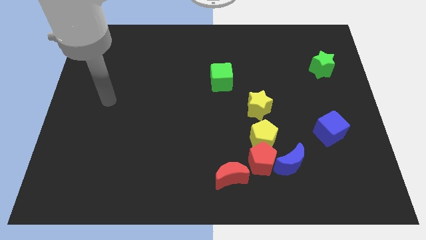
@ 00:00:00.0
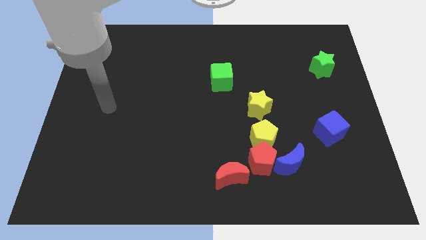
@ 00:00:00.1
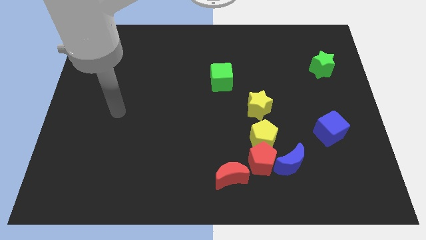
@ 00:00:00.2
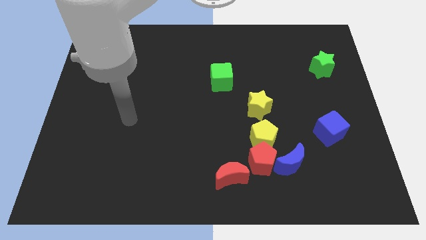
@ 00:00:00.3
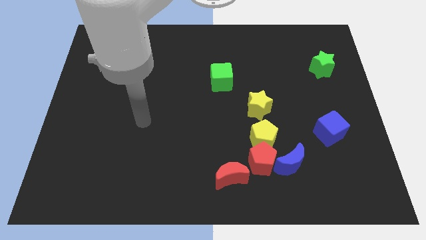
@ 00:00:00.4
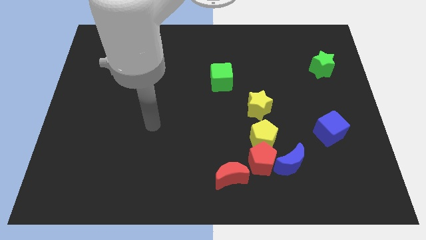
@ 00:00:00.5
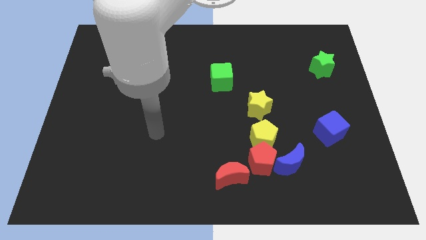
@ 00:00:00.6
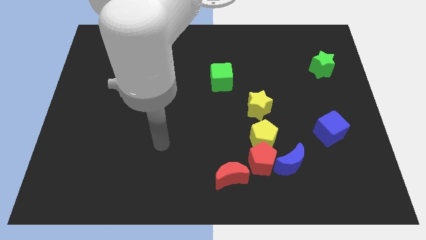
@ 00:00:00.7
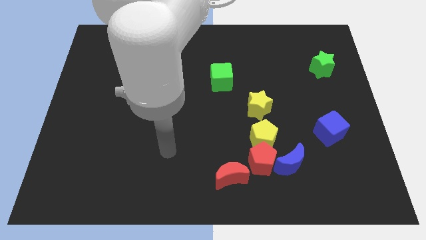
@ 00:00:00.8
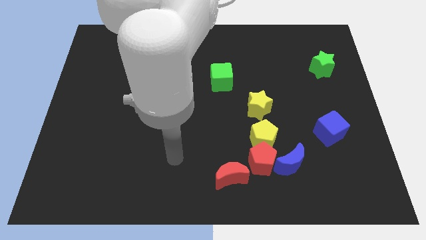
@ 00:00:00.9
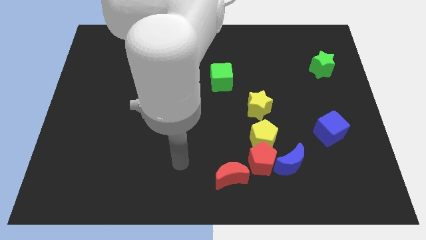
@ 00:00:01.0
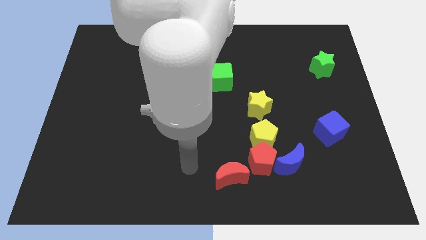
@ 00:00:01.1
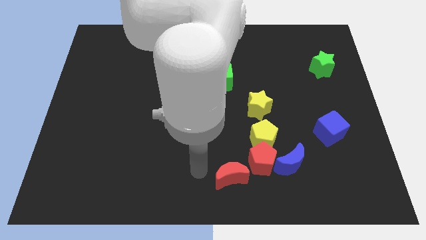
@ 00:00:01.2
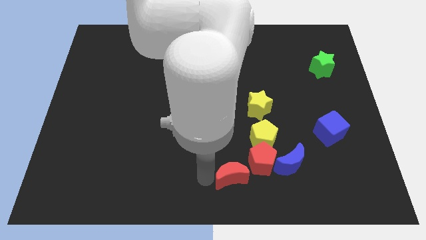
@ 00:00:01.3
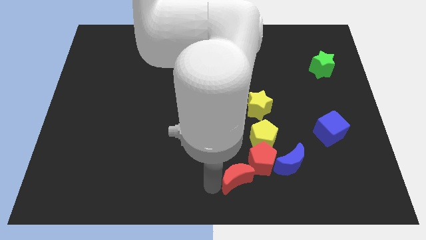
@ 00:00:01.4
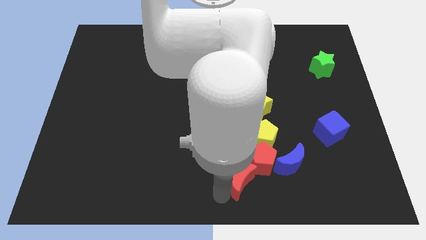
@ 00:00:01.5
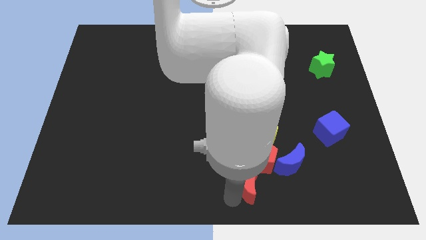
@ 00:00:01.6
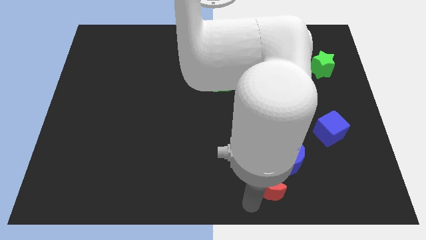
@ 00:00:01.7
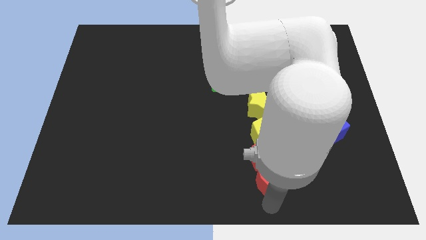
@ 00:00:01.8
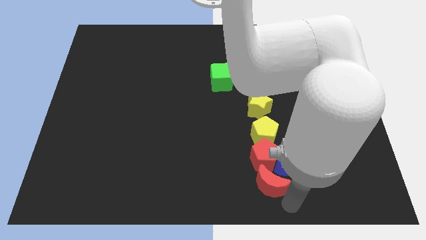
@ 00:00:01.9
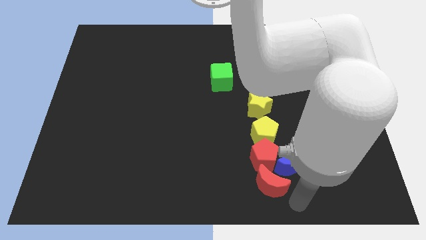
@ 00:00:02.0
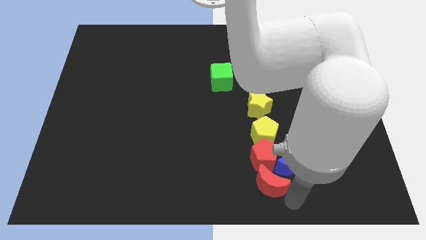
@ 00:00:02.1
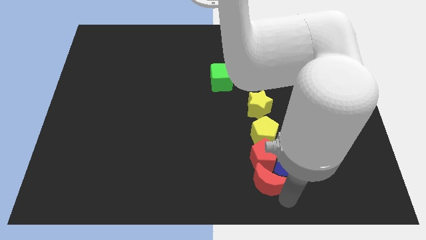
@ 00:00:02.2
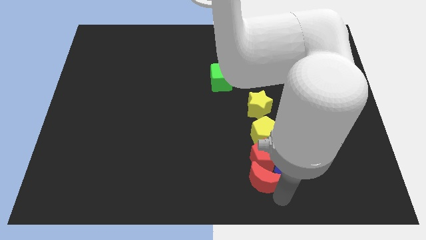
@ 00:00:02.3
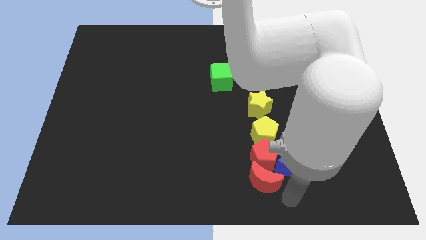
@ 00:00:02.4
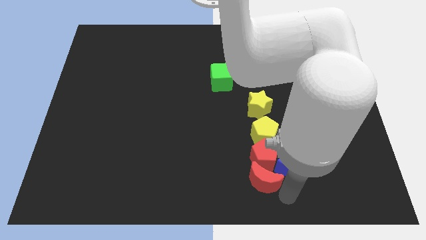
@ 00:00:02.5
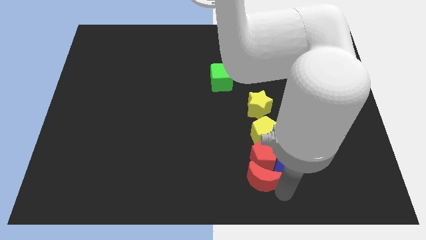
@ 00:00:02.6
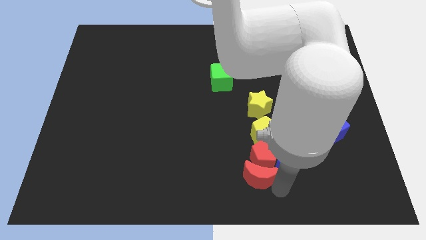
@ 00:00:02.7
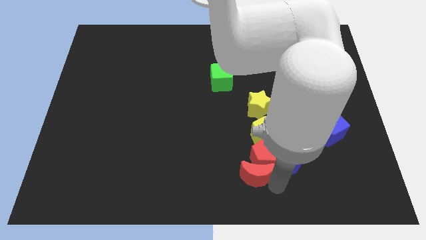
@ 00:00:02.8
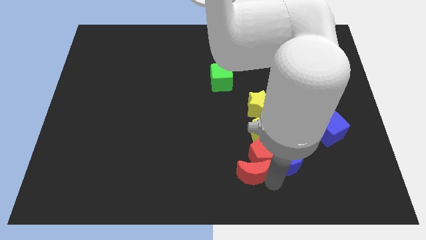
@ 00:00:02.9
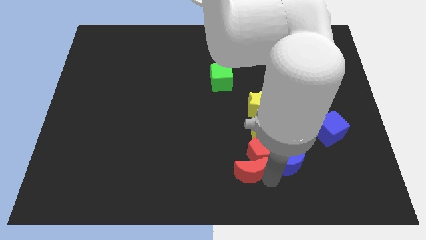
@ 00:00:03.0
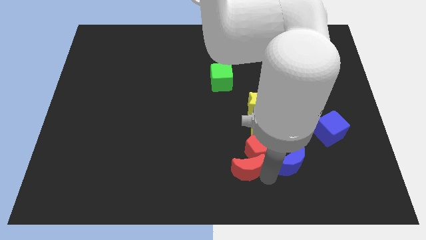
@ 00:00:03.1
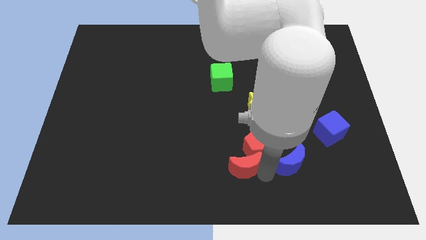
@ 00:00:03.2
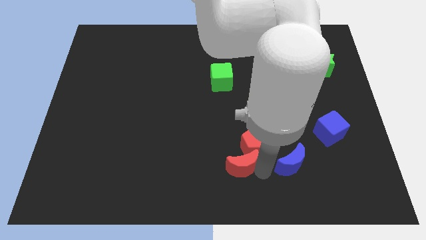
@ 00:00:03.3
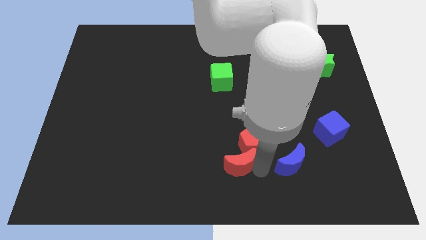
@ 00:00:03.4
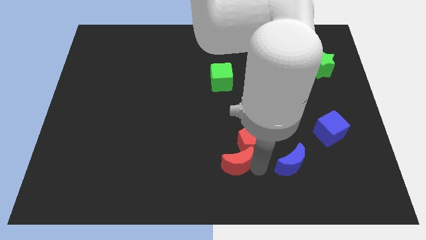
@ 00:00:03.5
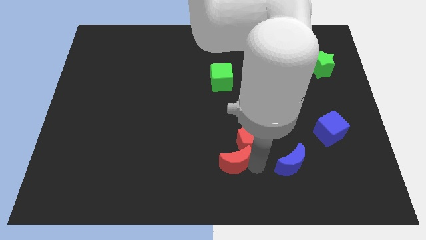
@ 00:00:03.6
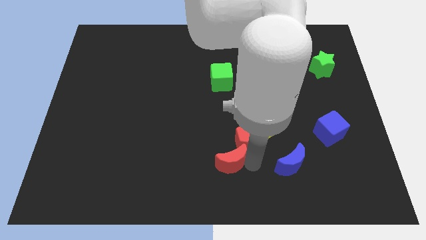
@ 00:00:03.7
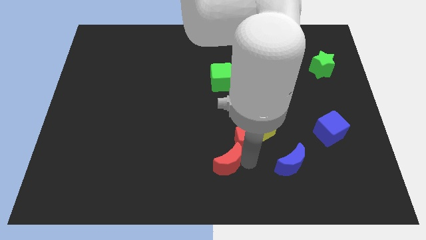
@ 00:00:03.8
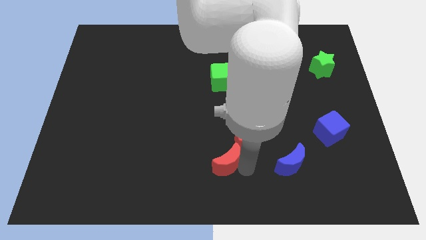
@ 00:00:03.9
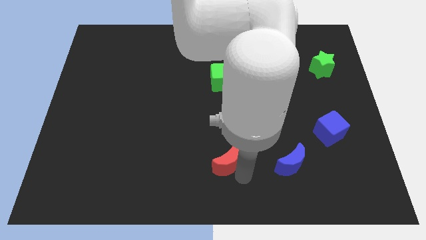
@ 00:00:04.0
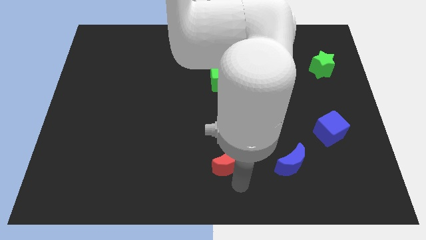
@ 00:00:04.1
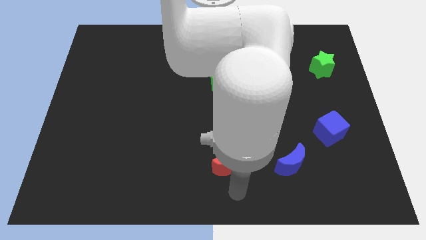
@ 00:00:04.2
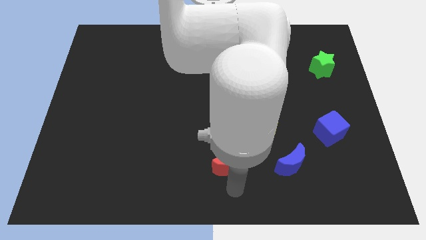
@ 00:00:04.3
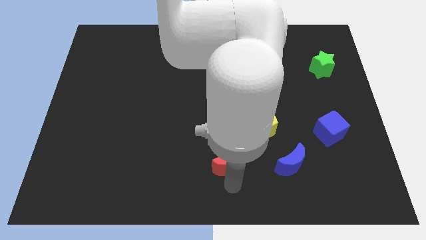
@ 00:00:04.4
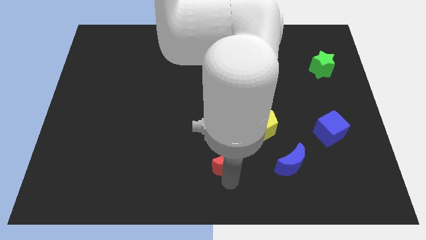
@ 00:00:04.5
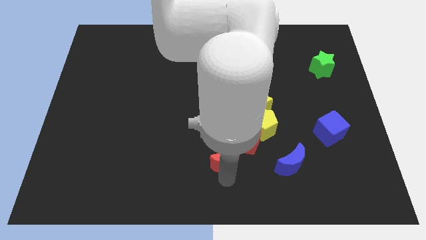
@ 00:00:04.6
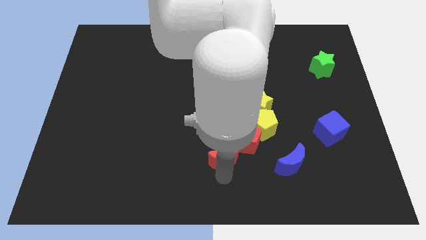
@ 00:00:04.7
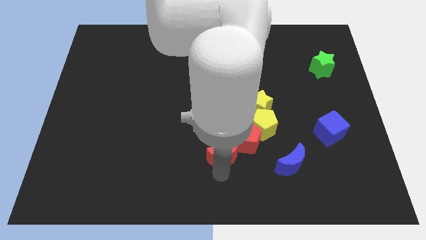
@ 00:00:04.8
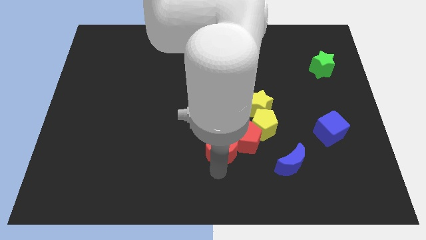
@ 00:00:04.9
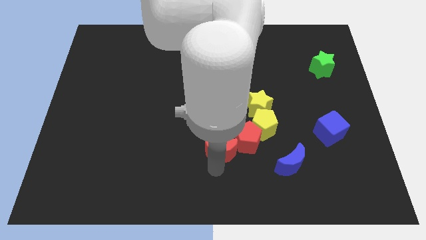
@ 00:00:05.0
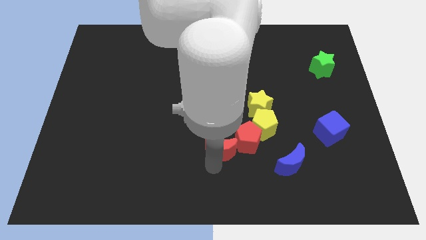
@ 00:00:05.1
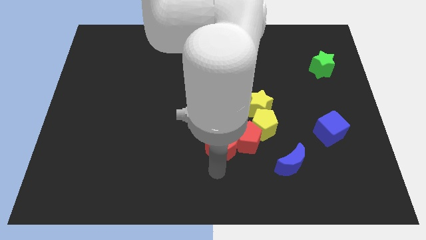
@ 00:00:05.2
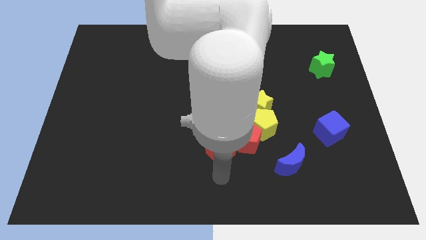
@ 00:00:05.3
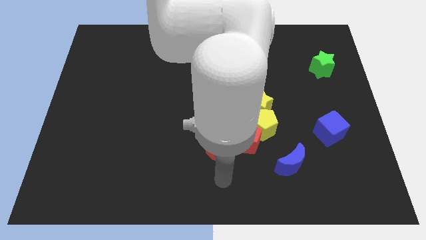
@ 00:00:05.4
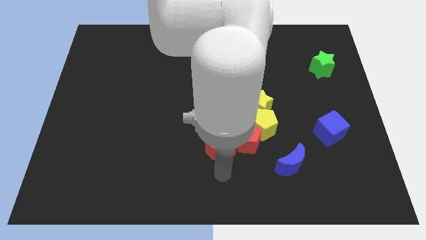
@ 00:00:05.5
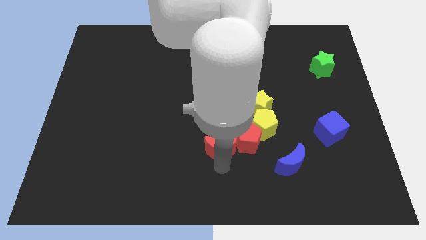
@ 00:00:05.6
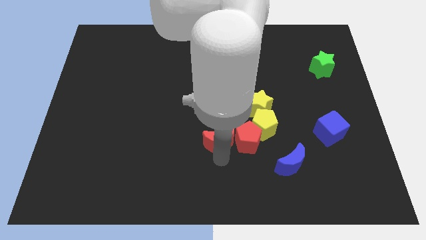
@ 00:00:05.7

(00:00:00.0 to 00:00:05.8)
slide the red moon just left of the yellow pentagon
